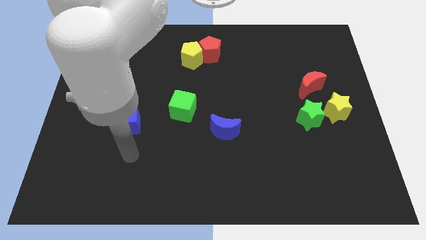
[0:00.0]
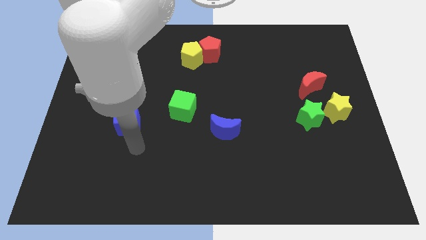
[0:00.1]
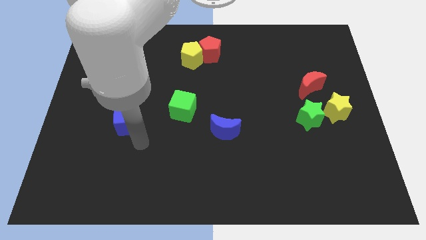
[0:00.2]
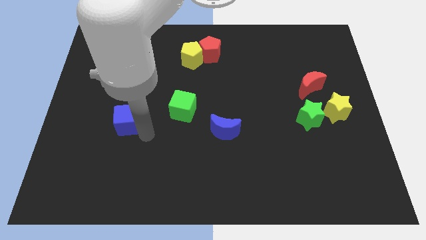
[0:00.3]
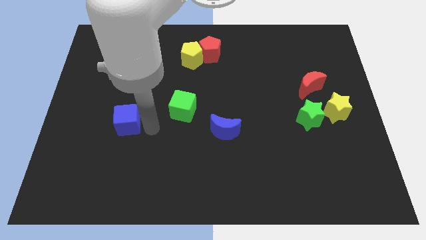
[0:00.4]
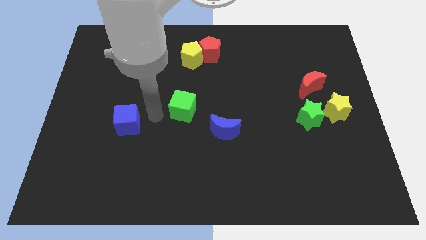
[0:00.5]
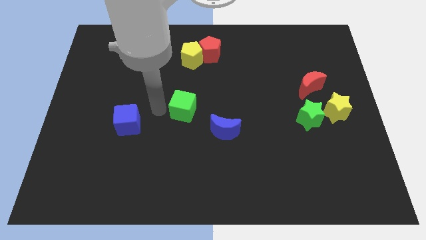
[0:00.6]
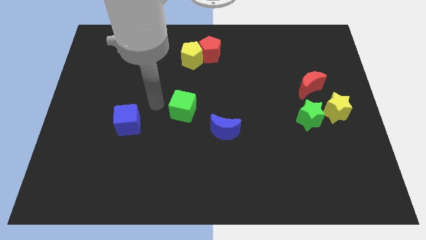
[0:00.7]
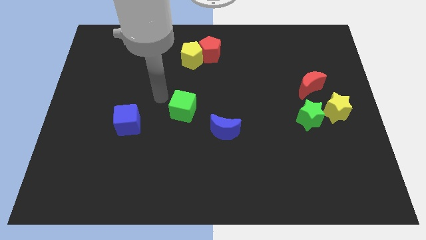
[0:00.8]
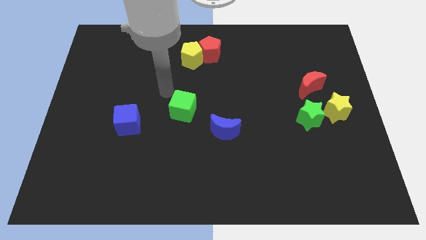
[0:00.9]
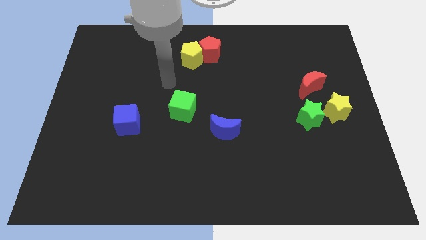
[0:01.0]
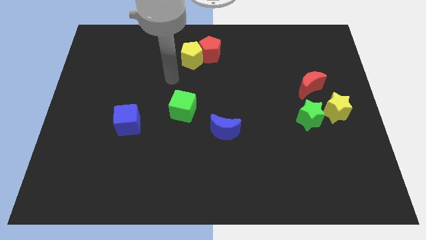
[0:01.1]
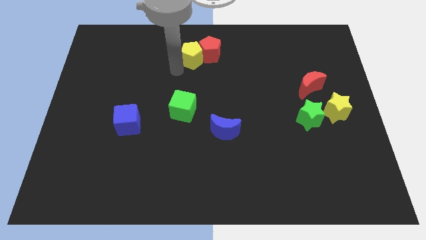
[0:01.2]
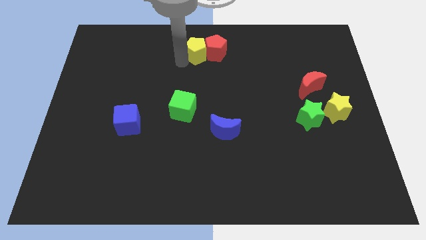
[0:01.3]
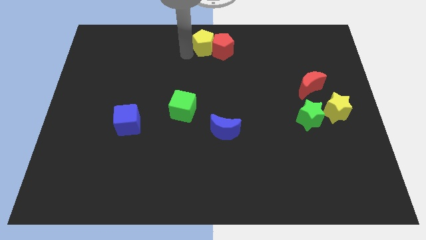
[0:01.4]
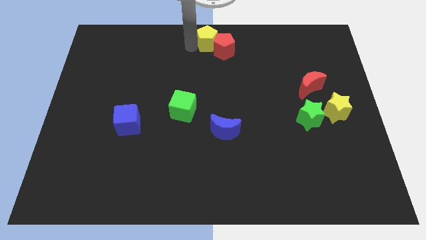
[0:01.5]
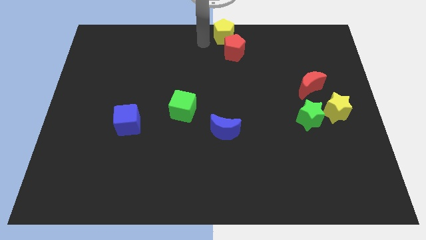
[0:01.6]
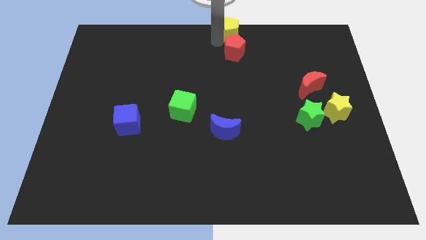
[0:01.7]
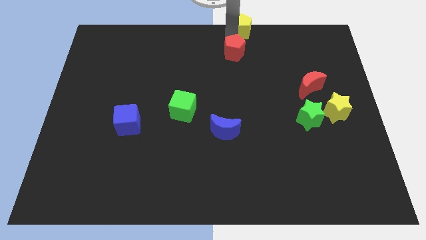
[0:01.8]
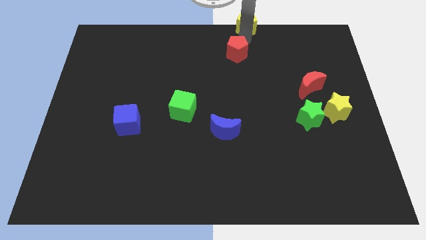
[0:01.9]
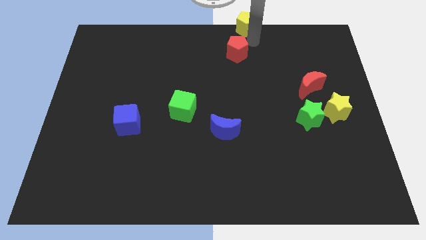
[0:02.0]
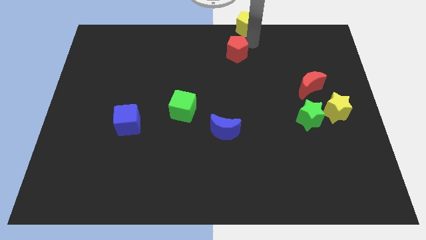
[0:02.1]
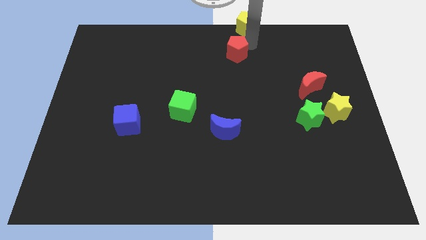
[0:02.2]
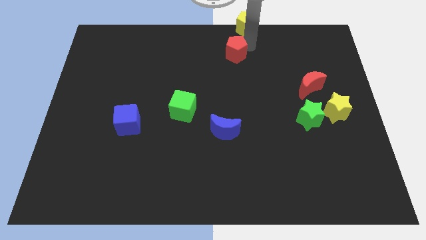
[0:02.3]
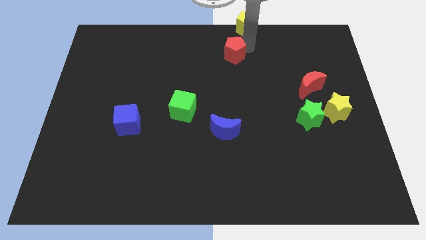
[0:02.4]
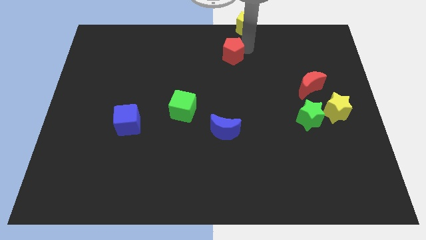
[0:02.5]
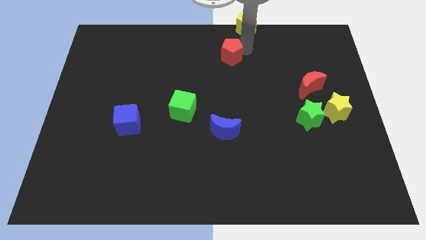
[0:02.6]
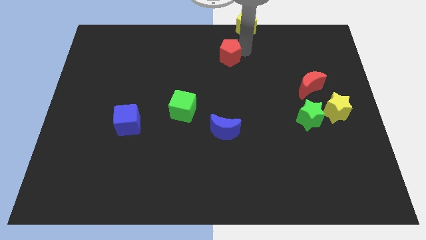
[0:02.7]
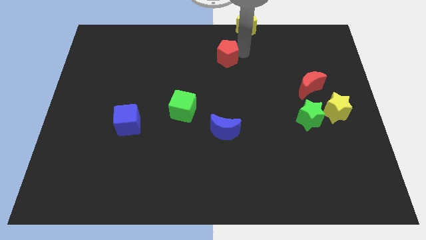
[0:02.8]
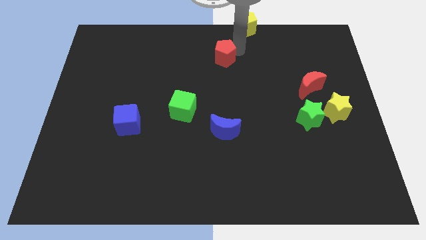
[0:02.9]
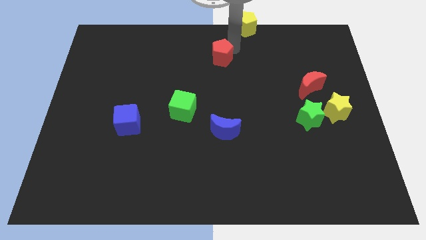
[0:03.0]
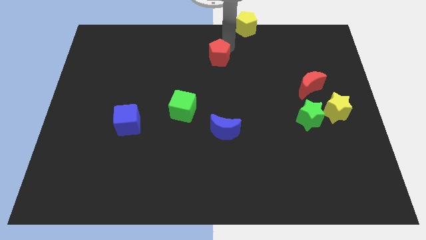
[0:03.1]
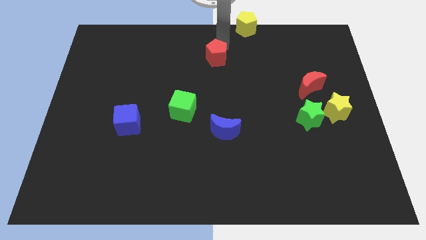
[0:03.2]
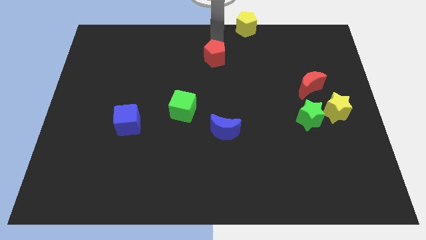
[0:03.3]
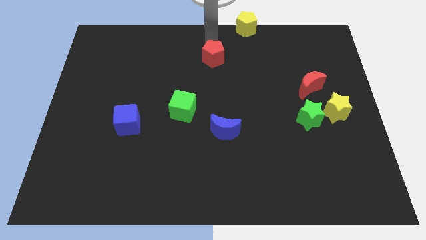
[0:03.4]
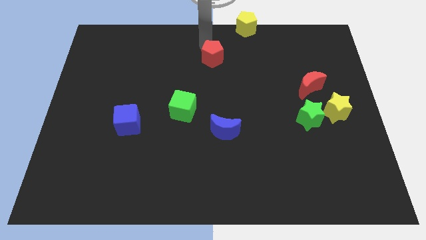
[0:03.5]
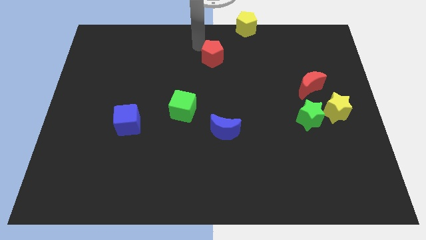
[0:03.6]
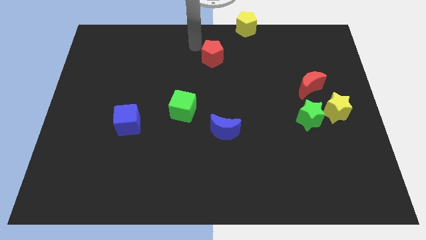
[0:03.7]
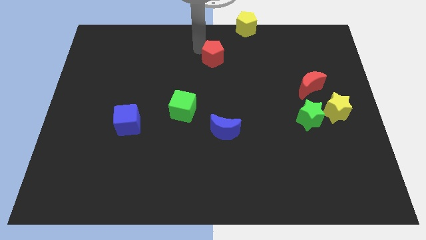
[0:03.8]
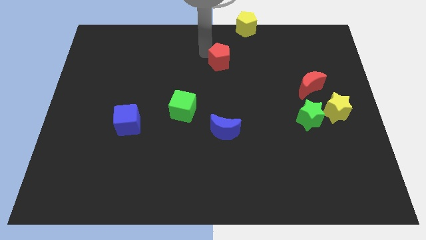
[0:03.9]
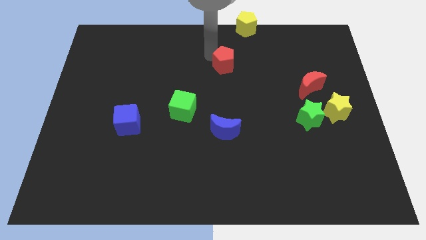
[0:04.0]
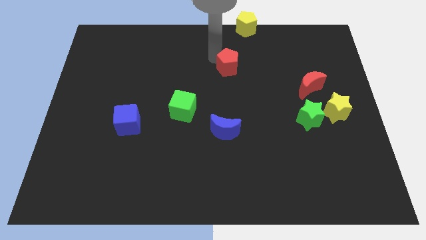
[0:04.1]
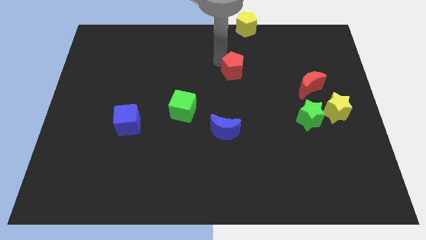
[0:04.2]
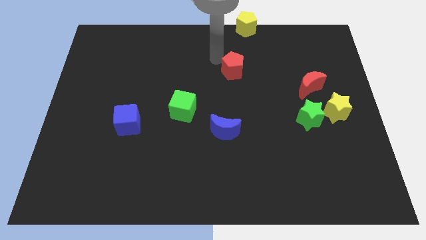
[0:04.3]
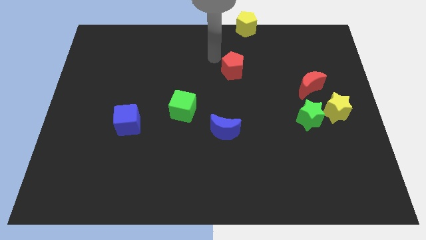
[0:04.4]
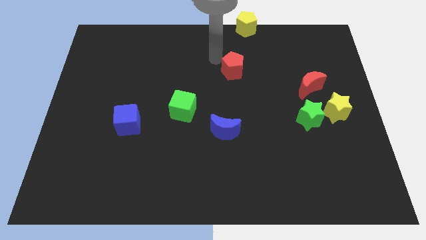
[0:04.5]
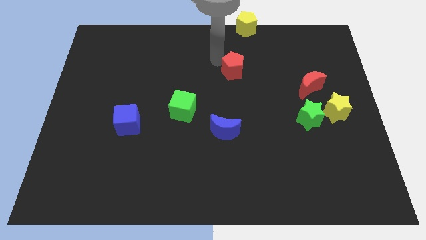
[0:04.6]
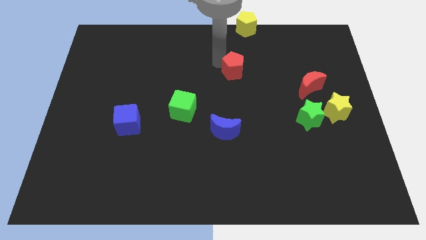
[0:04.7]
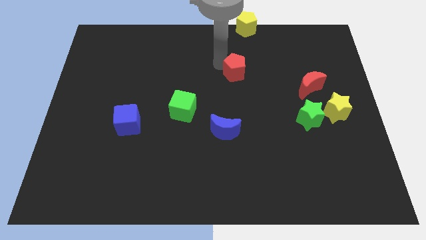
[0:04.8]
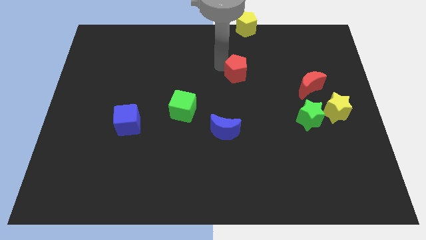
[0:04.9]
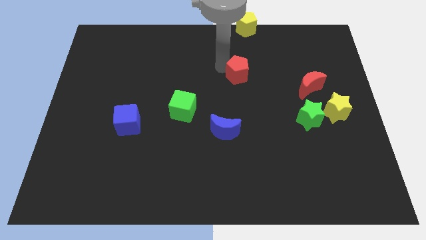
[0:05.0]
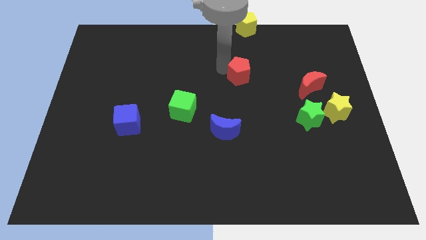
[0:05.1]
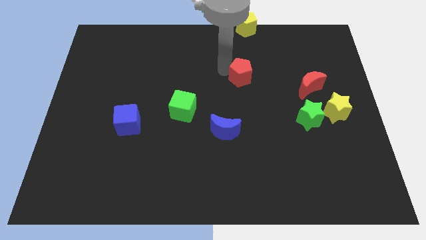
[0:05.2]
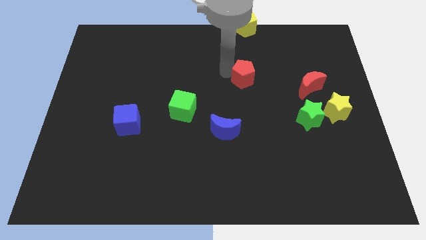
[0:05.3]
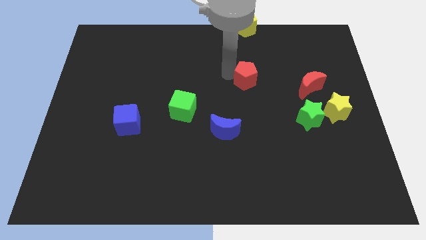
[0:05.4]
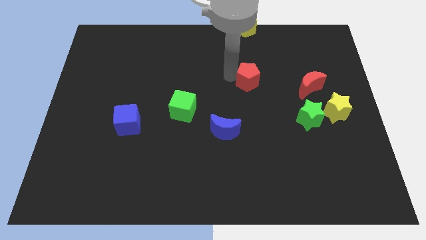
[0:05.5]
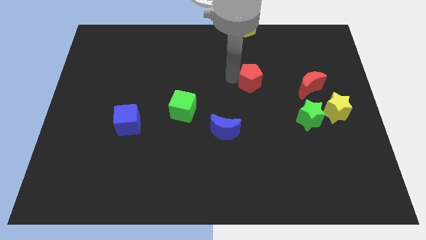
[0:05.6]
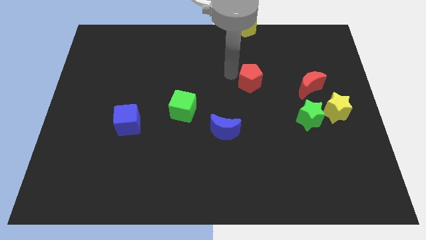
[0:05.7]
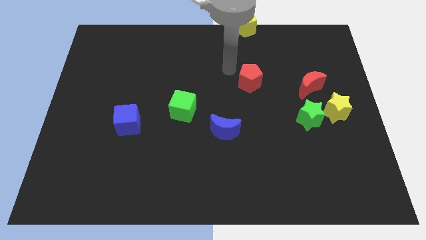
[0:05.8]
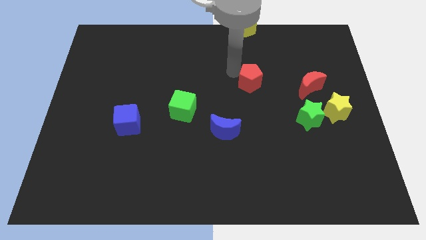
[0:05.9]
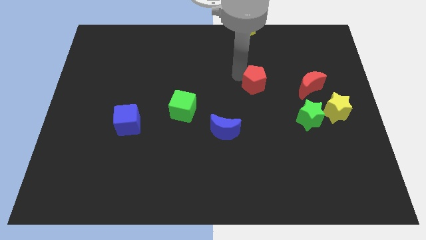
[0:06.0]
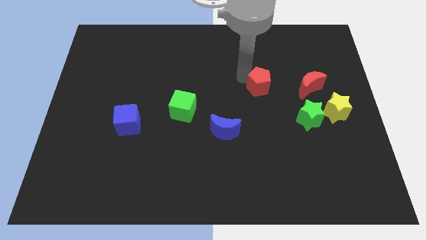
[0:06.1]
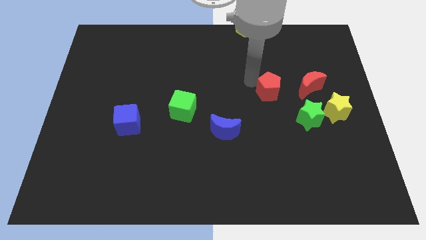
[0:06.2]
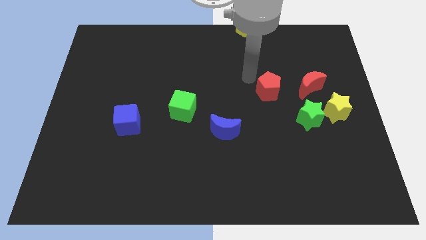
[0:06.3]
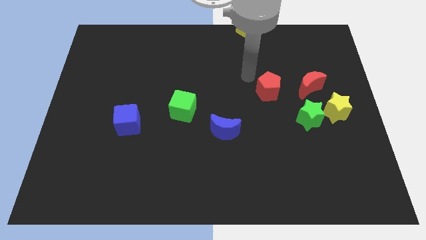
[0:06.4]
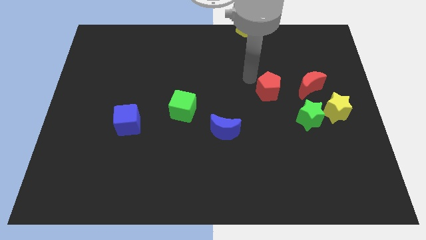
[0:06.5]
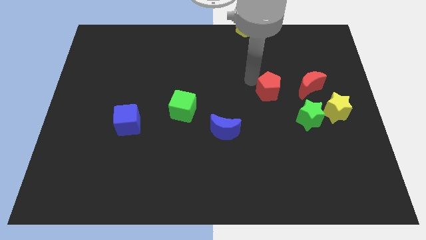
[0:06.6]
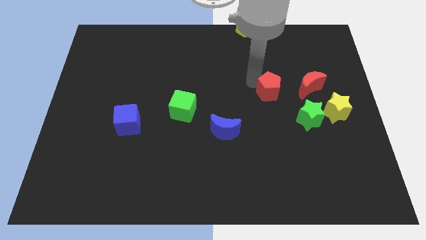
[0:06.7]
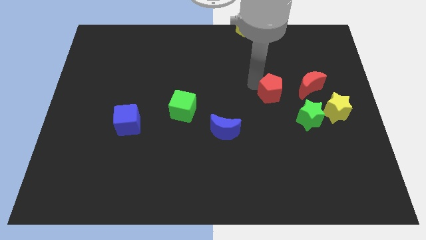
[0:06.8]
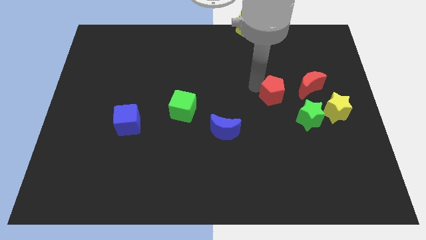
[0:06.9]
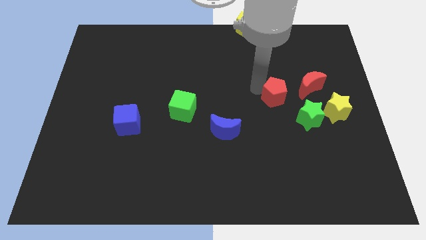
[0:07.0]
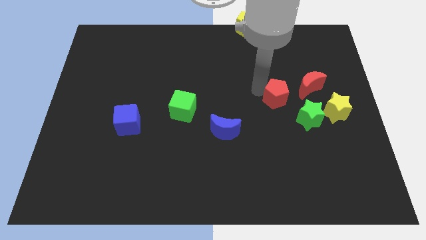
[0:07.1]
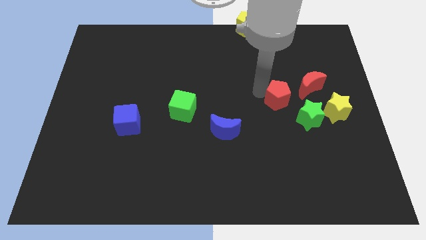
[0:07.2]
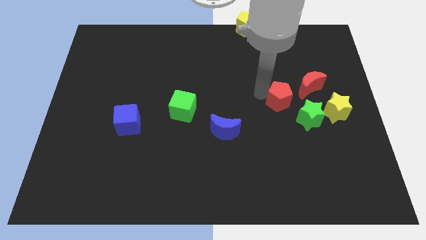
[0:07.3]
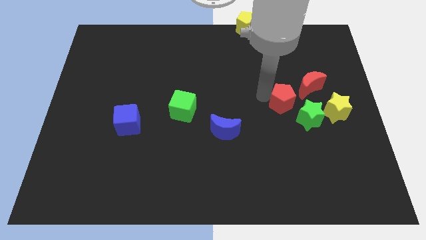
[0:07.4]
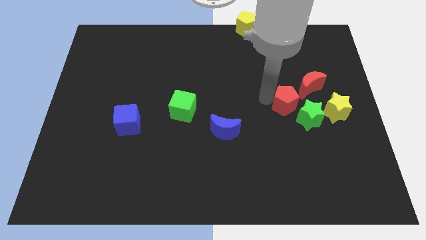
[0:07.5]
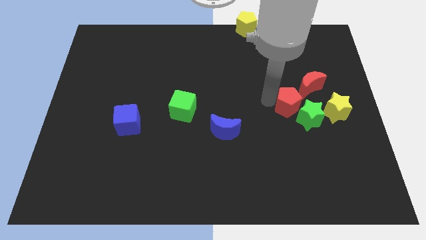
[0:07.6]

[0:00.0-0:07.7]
put the red pentagon next to the green star
